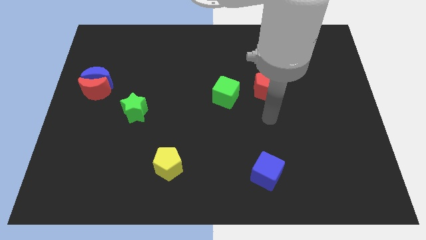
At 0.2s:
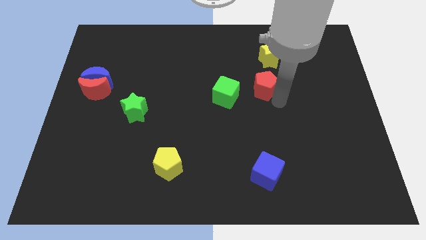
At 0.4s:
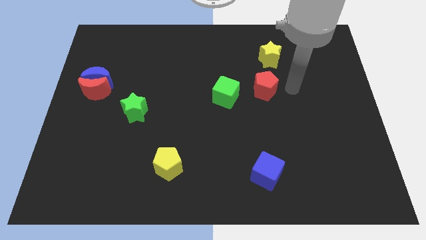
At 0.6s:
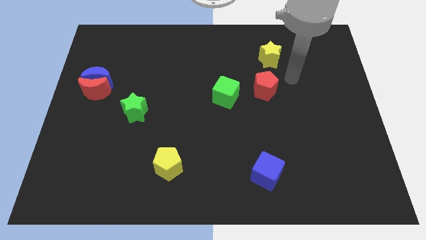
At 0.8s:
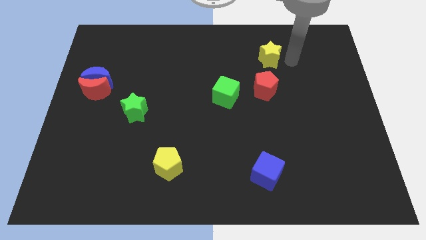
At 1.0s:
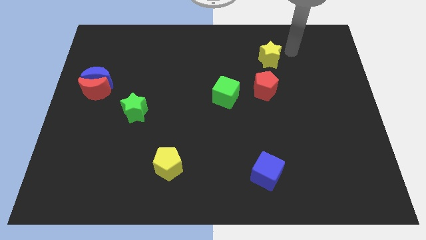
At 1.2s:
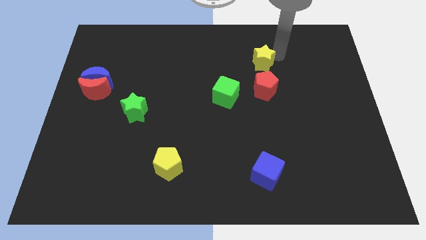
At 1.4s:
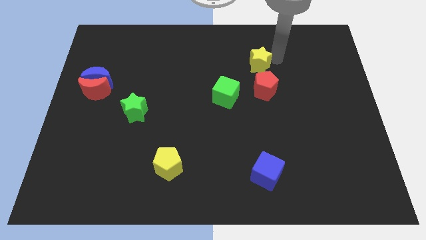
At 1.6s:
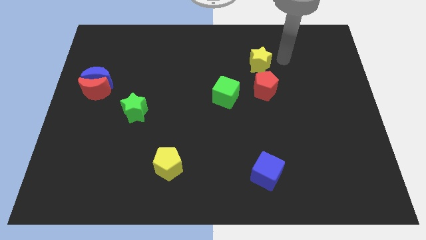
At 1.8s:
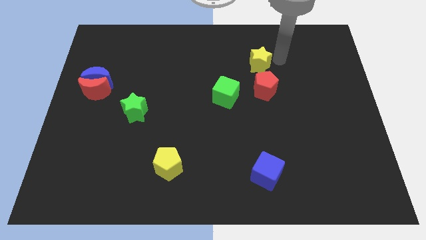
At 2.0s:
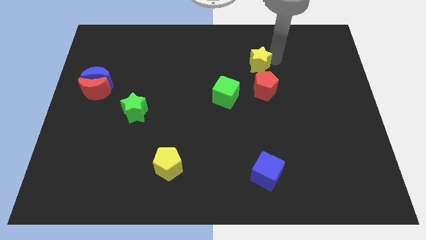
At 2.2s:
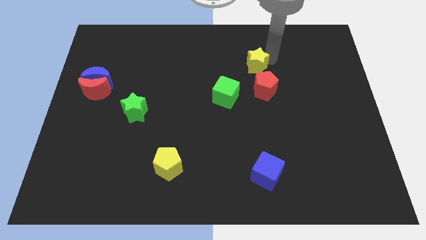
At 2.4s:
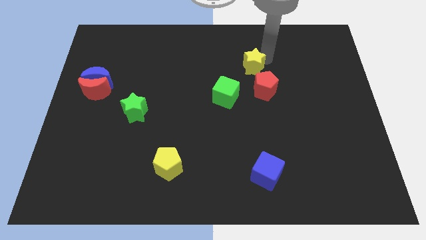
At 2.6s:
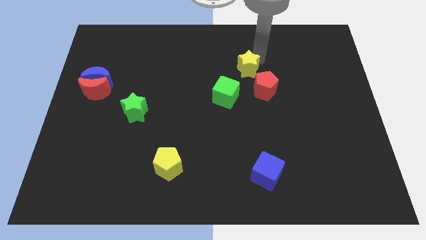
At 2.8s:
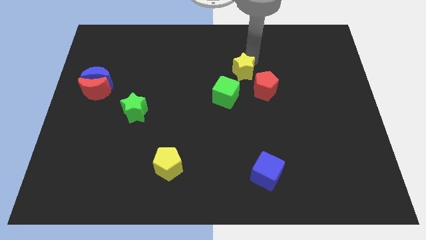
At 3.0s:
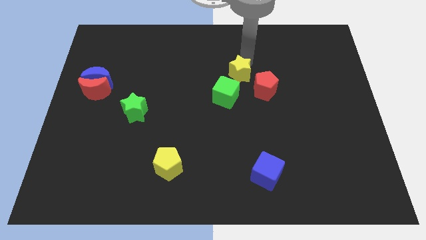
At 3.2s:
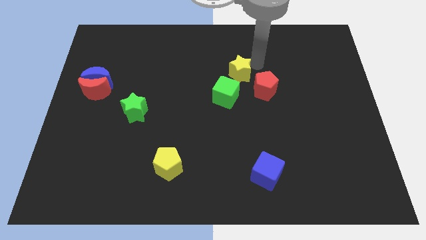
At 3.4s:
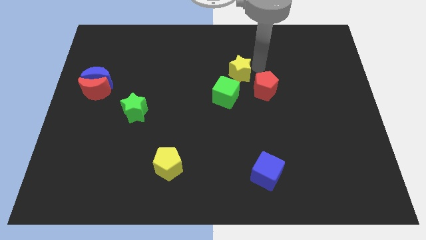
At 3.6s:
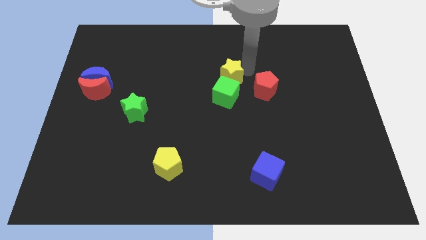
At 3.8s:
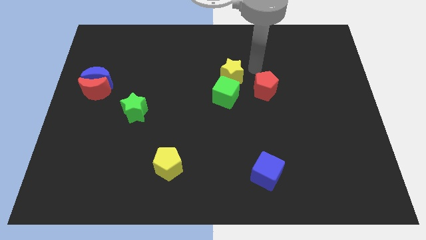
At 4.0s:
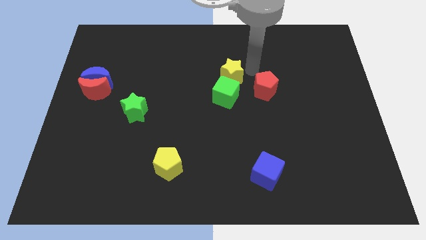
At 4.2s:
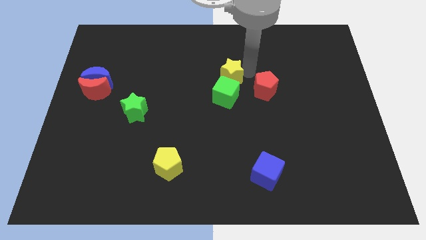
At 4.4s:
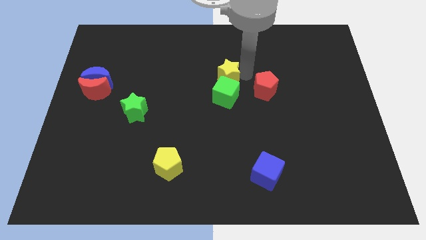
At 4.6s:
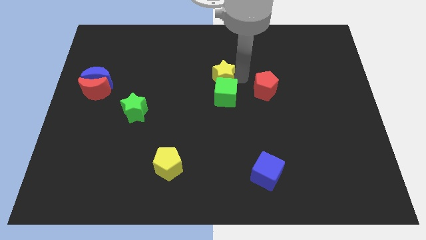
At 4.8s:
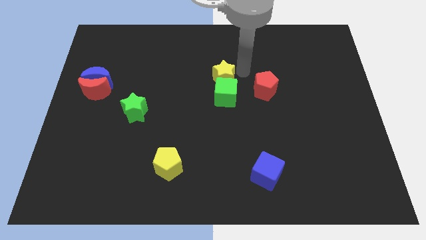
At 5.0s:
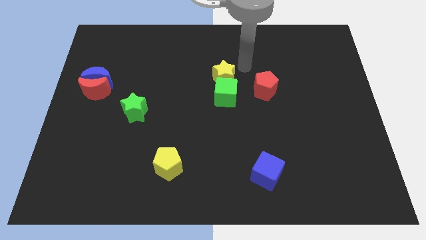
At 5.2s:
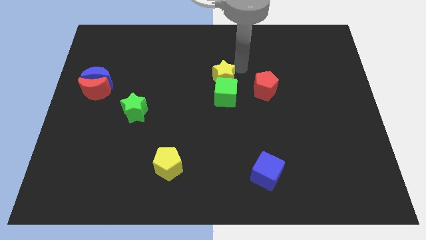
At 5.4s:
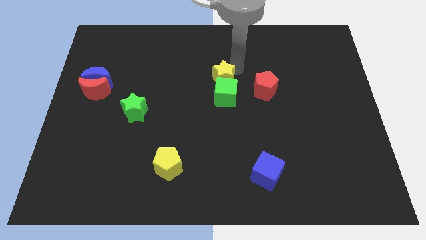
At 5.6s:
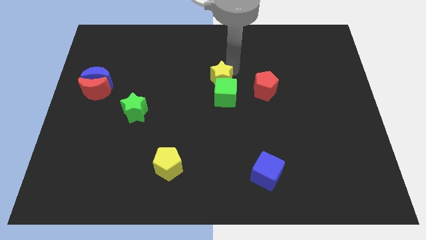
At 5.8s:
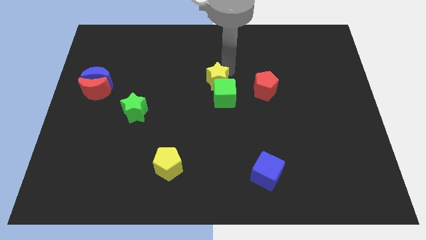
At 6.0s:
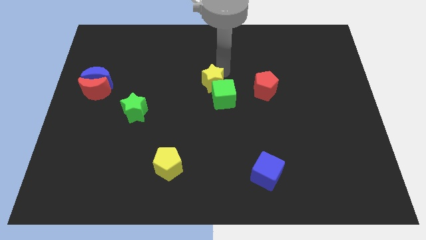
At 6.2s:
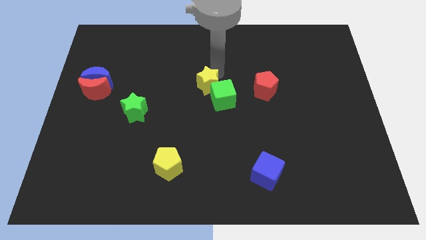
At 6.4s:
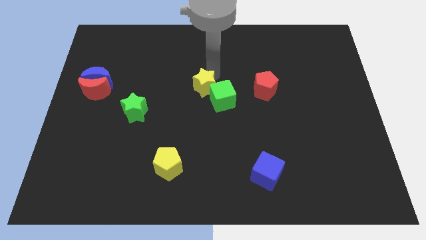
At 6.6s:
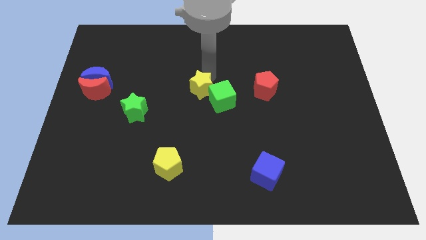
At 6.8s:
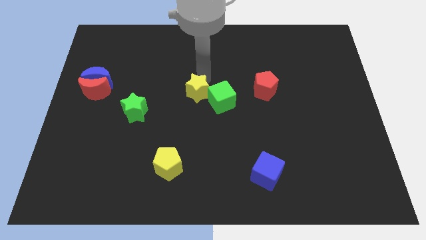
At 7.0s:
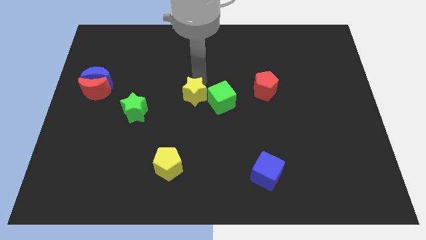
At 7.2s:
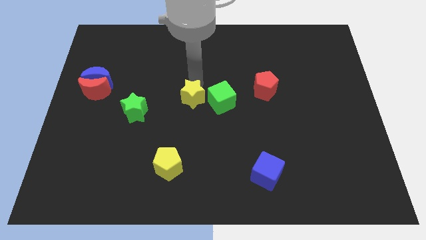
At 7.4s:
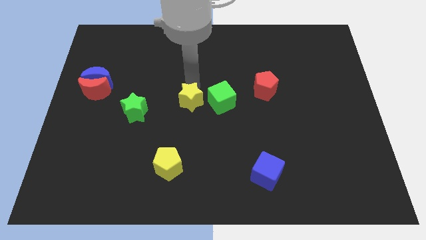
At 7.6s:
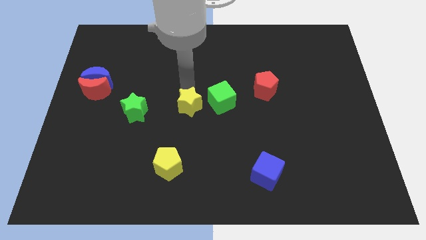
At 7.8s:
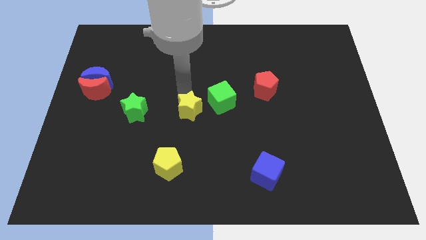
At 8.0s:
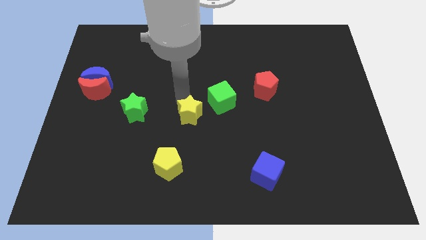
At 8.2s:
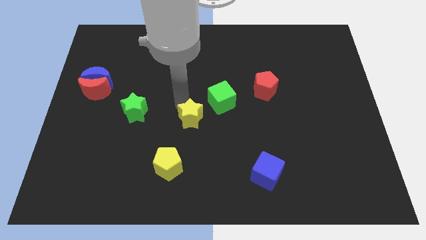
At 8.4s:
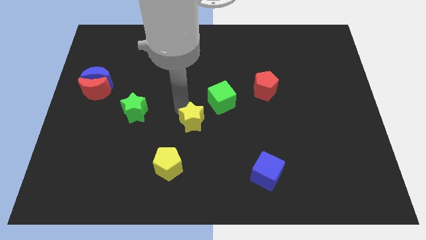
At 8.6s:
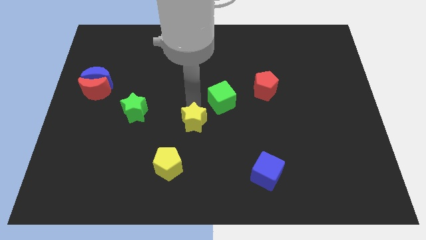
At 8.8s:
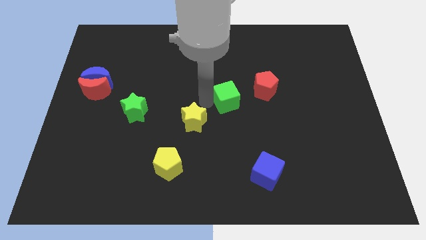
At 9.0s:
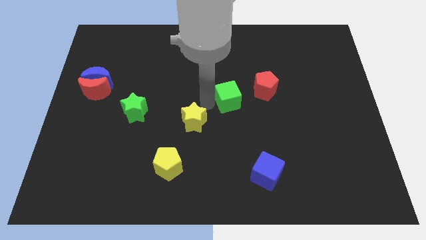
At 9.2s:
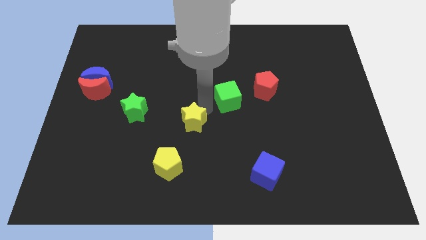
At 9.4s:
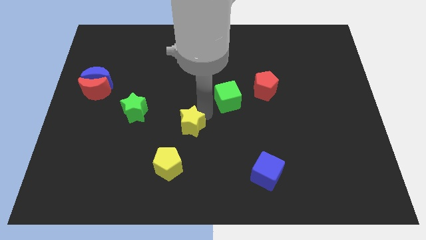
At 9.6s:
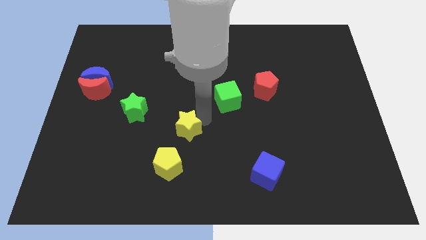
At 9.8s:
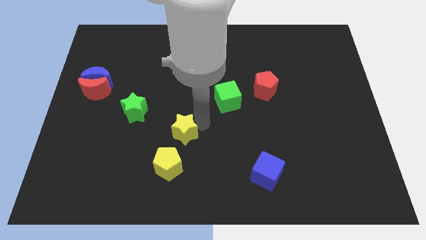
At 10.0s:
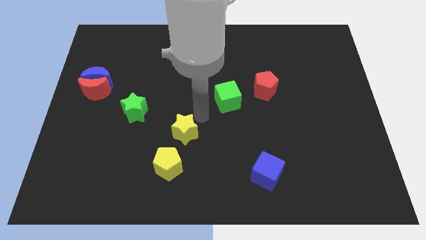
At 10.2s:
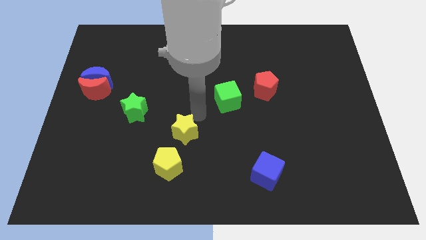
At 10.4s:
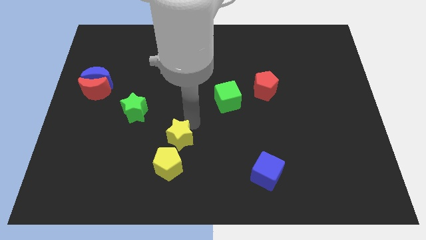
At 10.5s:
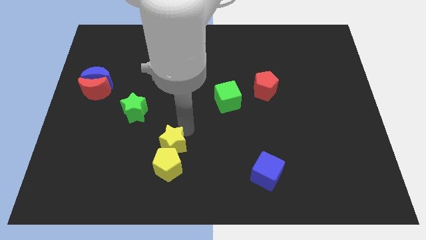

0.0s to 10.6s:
put the yellow star next to the yellow pentagon

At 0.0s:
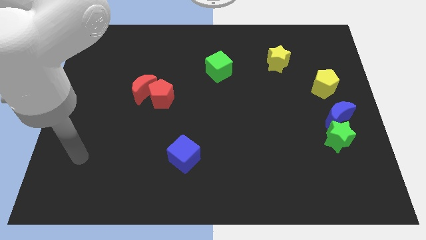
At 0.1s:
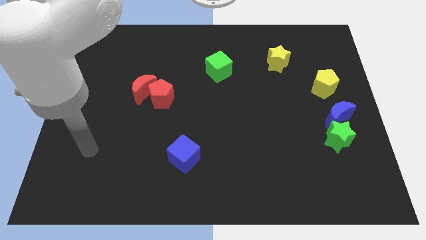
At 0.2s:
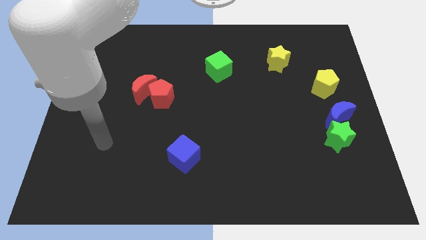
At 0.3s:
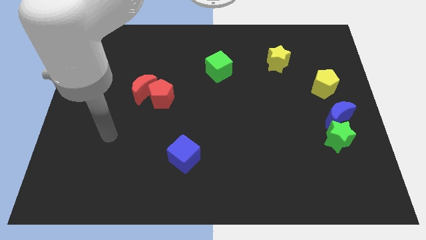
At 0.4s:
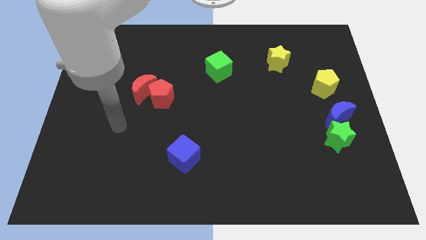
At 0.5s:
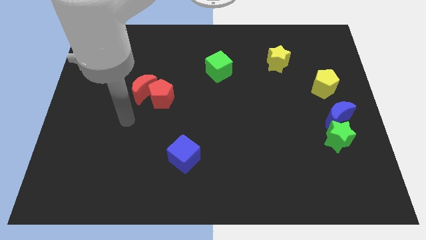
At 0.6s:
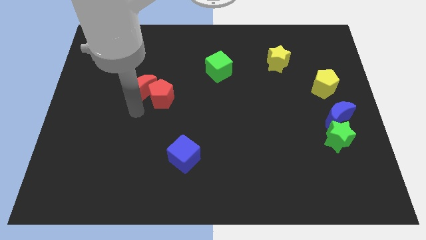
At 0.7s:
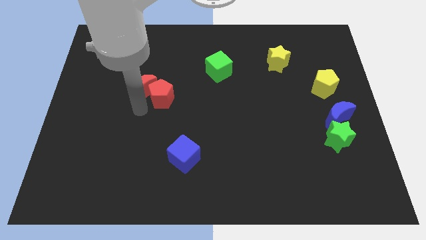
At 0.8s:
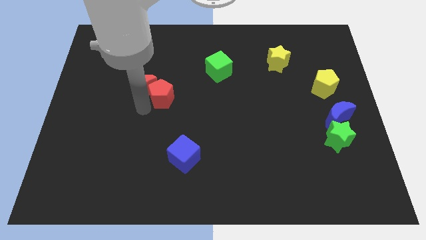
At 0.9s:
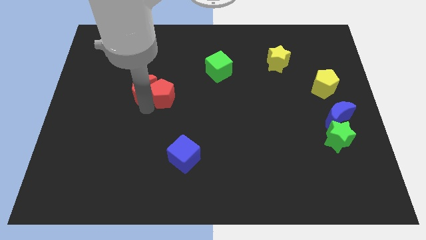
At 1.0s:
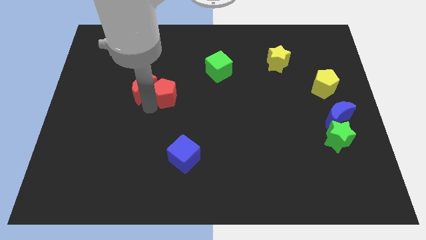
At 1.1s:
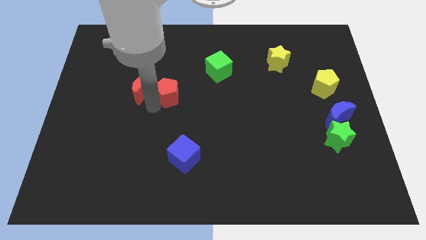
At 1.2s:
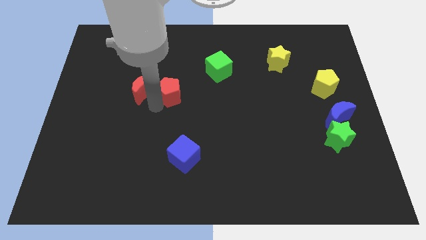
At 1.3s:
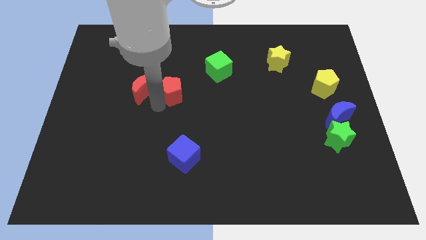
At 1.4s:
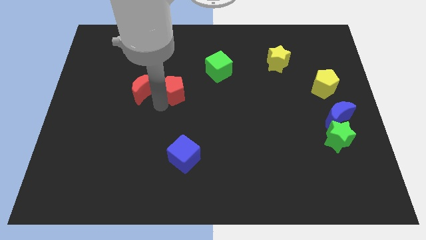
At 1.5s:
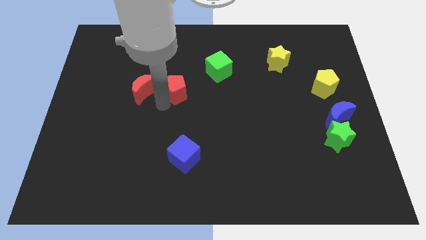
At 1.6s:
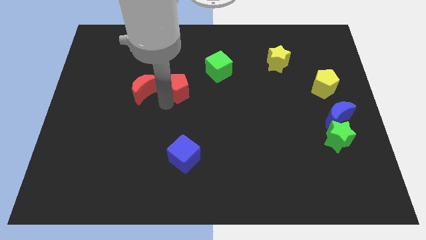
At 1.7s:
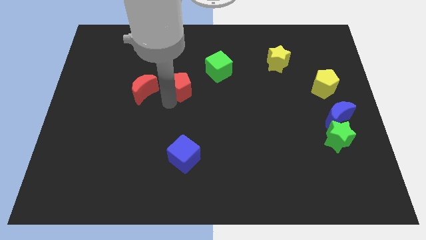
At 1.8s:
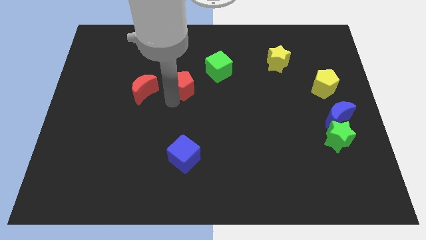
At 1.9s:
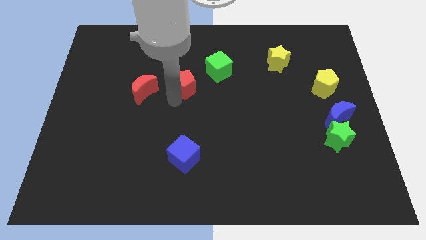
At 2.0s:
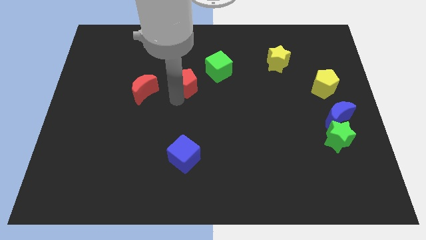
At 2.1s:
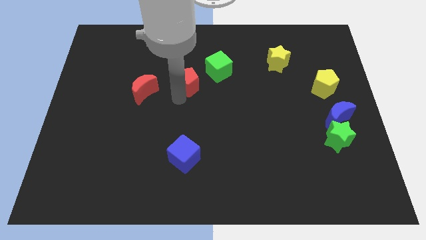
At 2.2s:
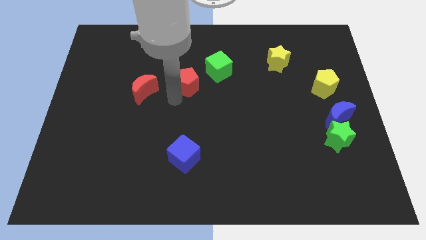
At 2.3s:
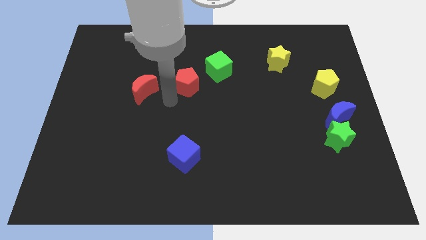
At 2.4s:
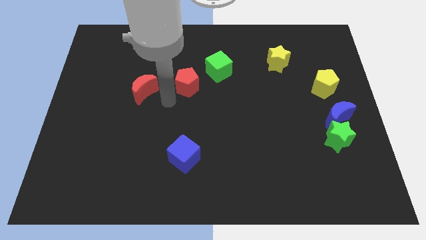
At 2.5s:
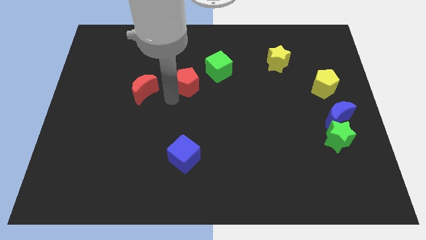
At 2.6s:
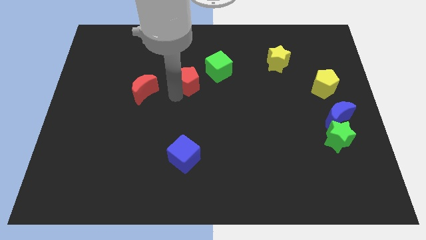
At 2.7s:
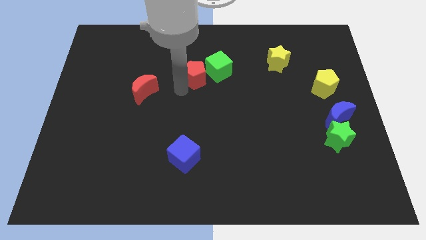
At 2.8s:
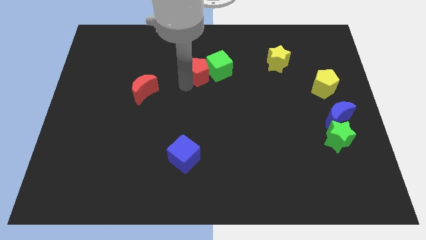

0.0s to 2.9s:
slide the red pentagon towards the green cube
